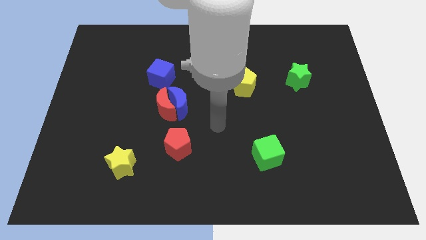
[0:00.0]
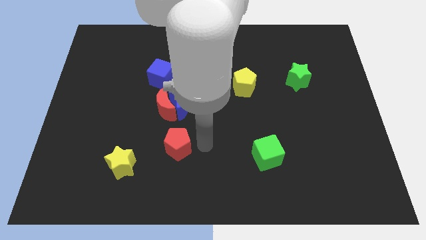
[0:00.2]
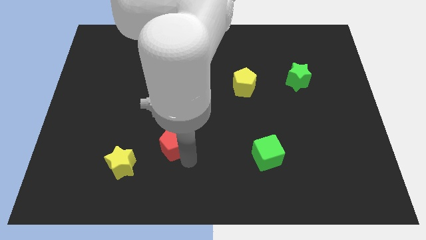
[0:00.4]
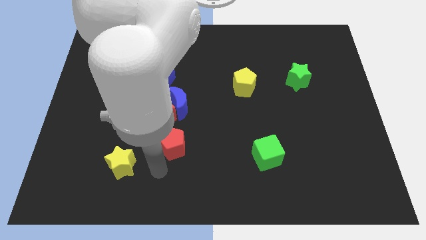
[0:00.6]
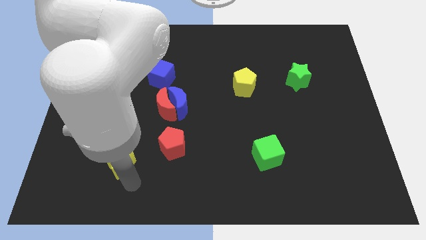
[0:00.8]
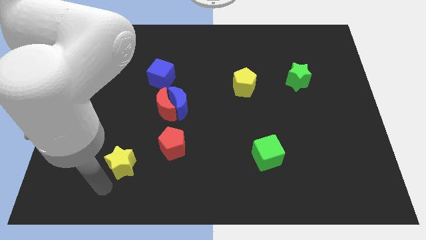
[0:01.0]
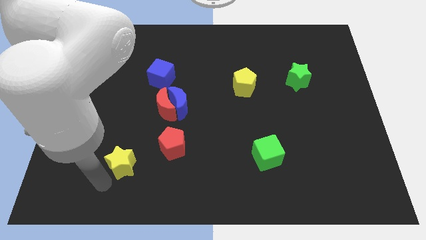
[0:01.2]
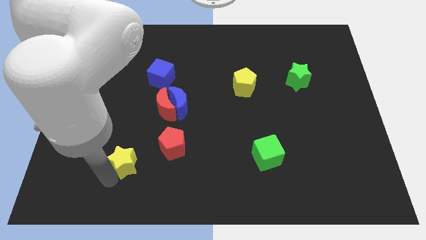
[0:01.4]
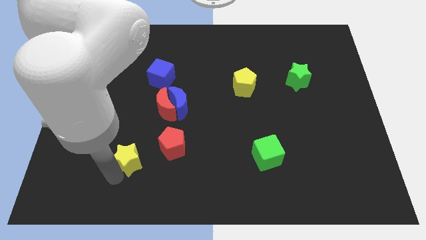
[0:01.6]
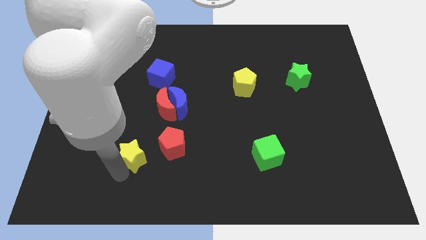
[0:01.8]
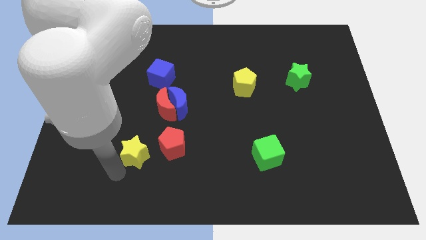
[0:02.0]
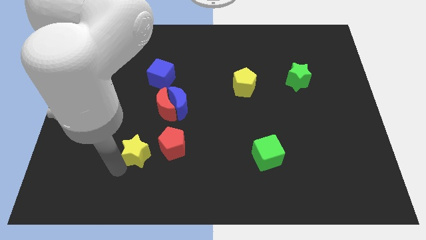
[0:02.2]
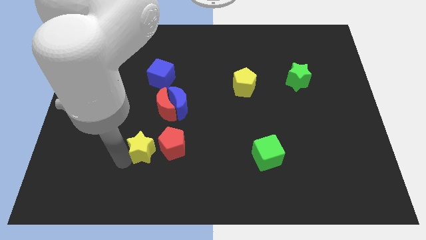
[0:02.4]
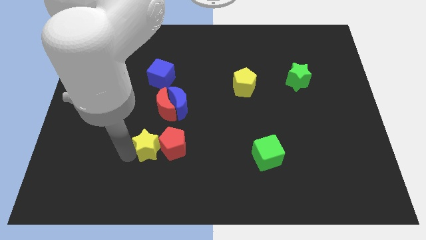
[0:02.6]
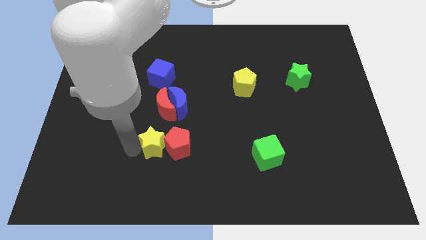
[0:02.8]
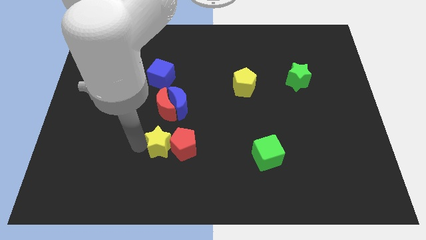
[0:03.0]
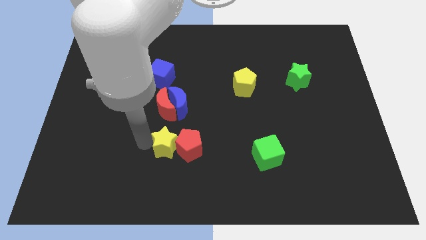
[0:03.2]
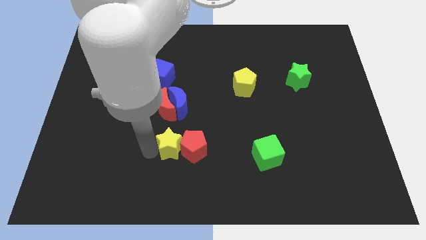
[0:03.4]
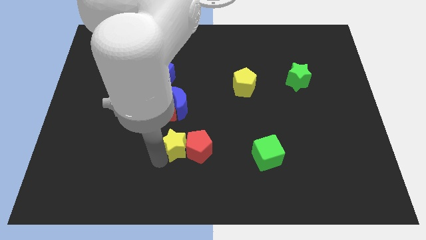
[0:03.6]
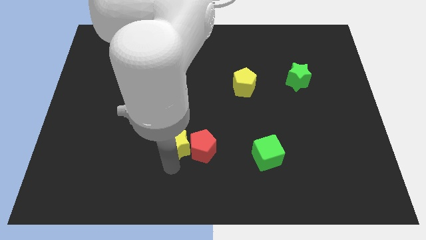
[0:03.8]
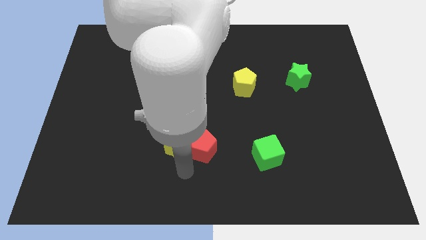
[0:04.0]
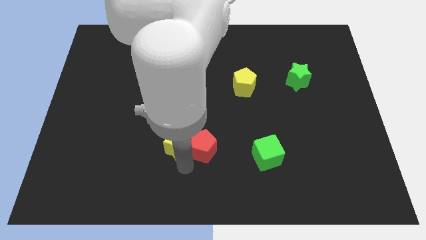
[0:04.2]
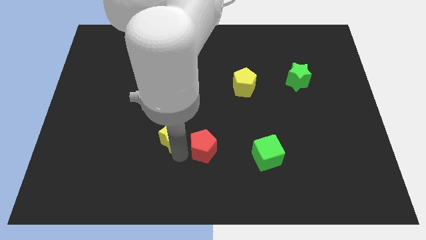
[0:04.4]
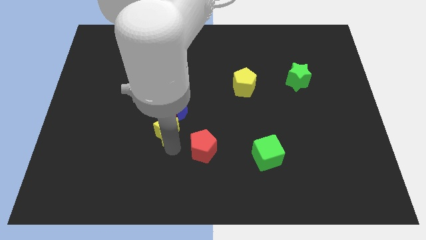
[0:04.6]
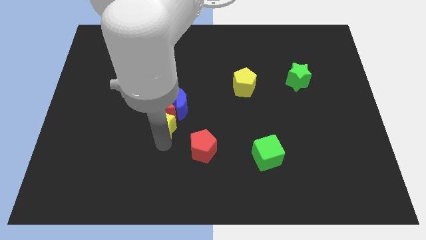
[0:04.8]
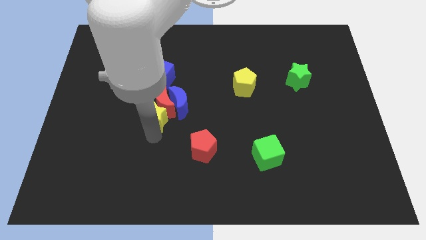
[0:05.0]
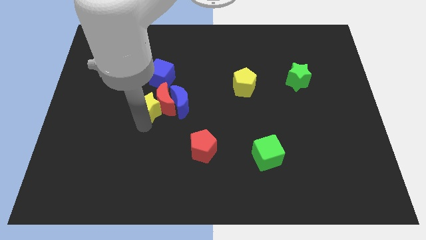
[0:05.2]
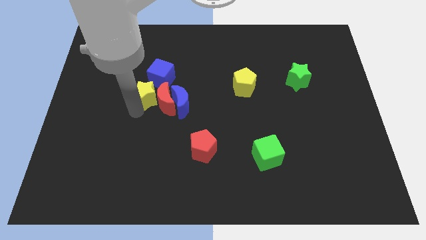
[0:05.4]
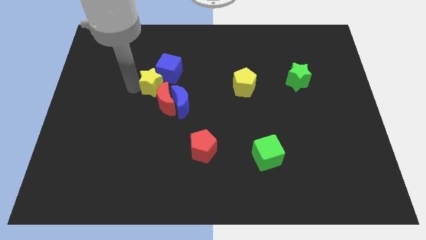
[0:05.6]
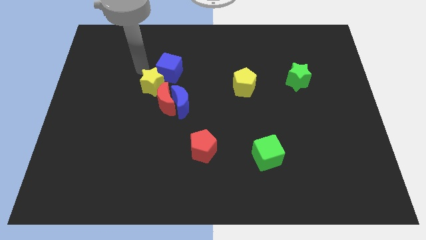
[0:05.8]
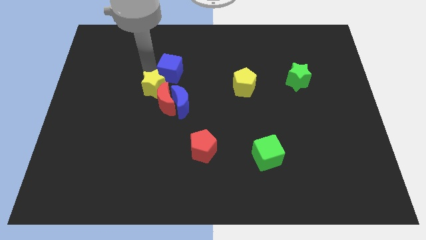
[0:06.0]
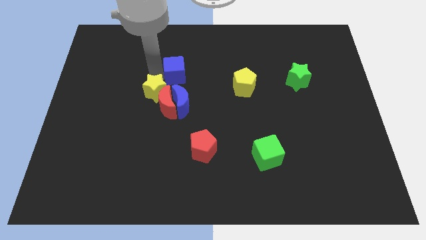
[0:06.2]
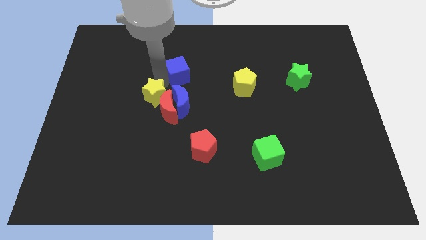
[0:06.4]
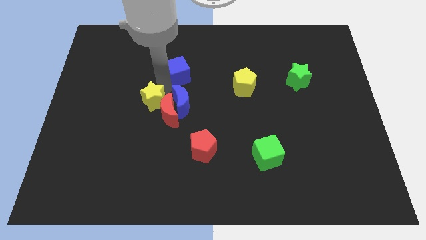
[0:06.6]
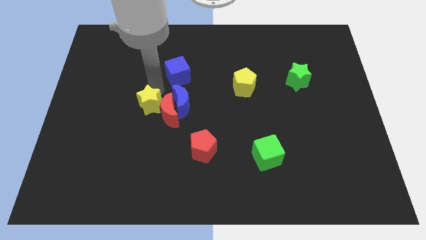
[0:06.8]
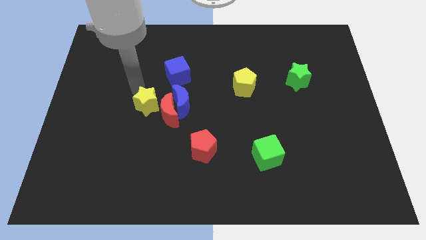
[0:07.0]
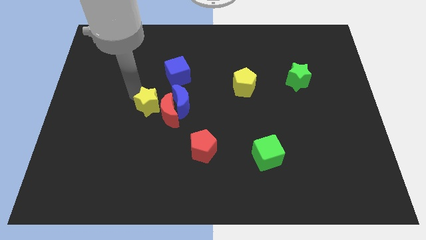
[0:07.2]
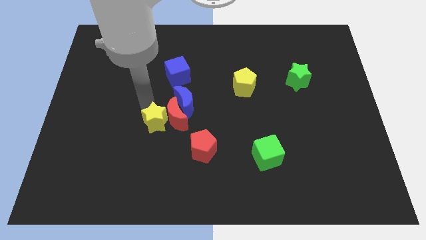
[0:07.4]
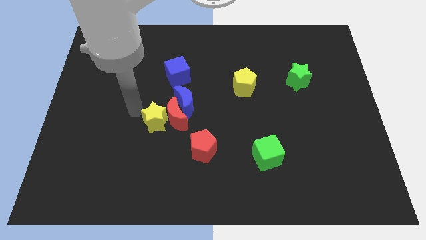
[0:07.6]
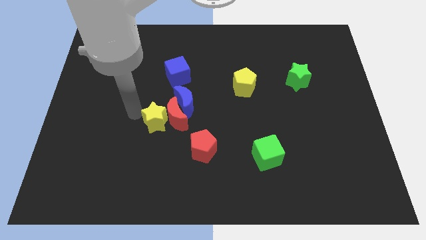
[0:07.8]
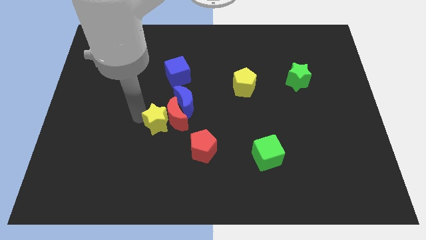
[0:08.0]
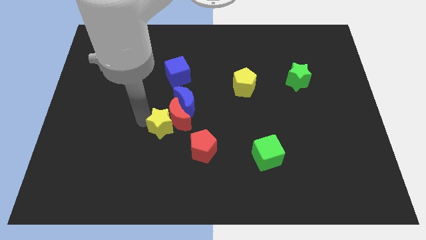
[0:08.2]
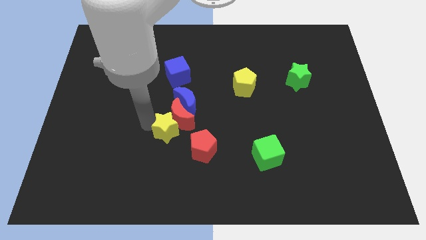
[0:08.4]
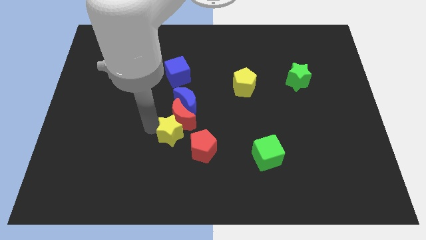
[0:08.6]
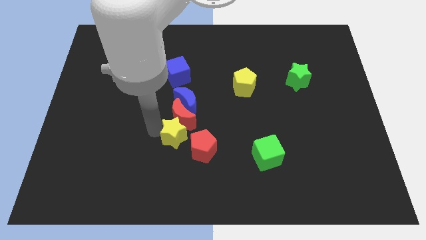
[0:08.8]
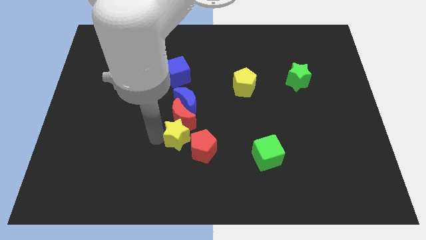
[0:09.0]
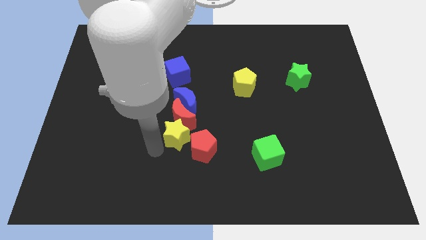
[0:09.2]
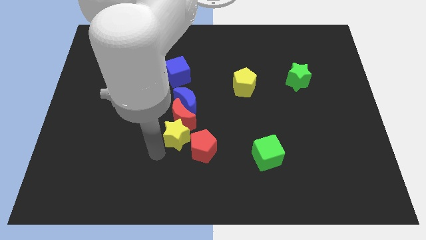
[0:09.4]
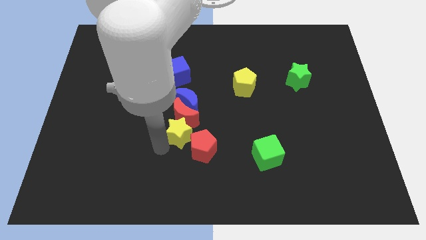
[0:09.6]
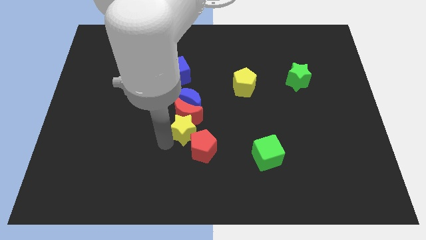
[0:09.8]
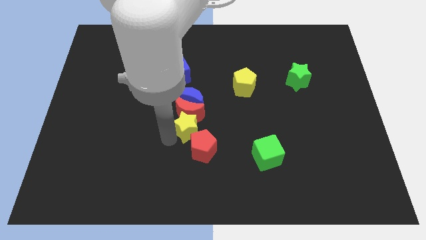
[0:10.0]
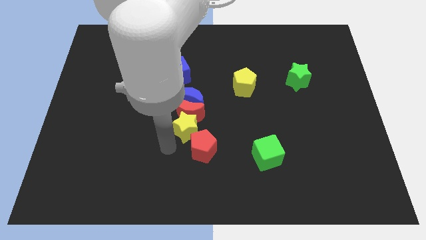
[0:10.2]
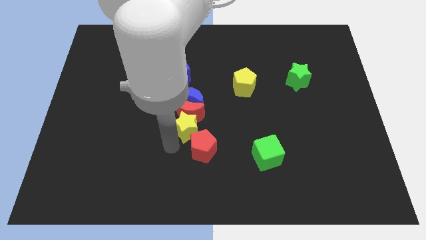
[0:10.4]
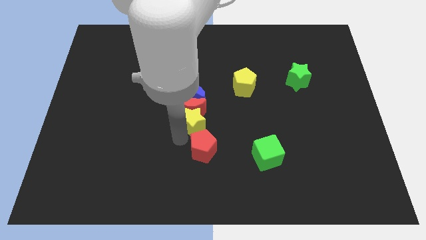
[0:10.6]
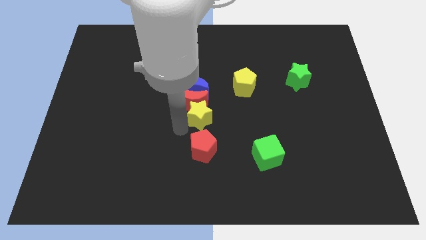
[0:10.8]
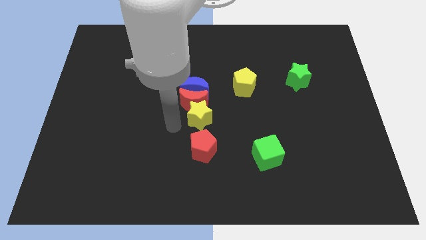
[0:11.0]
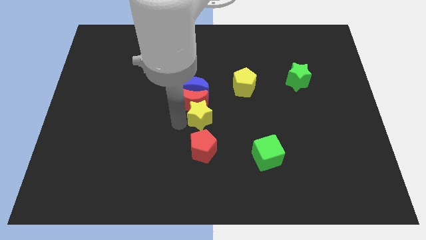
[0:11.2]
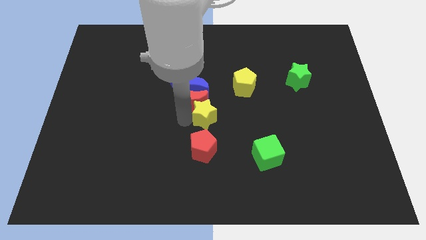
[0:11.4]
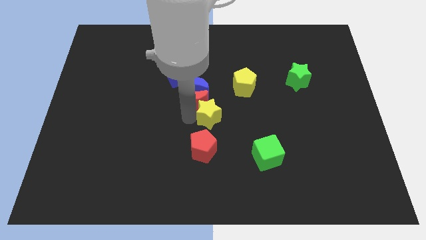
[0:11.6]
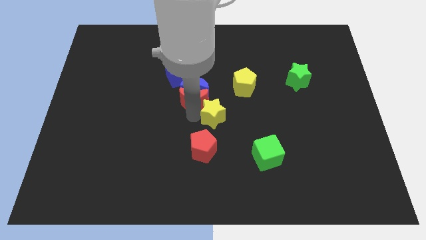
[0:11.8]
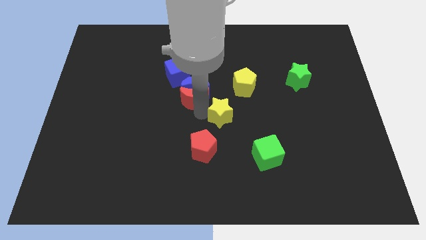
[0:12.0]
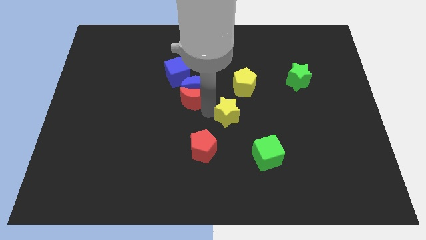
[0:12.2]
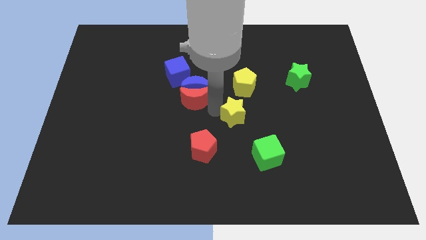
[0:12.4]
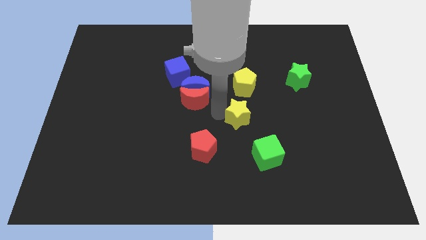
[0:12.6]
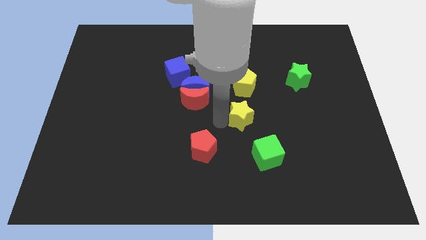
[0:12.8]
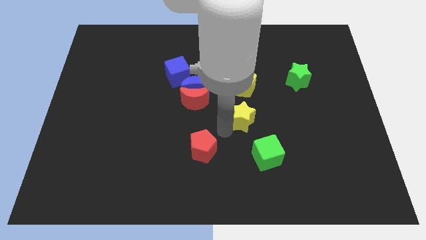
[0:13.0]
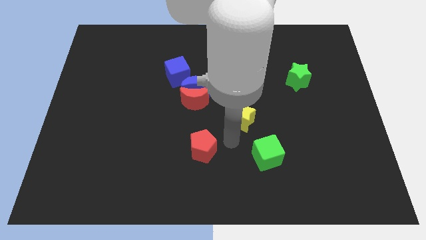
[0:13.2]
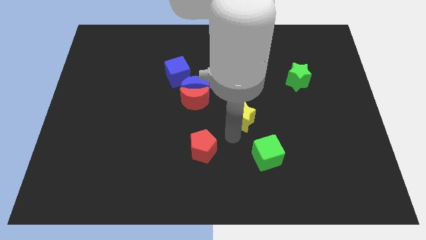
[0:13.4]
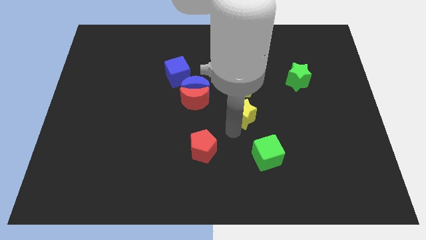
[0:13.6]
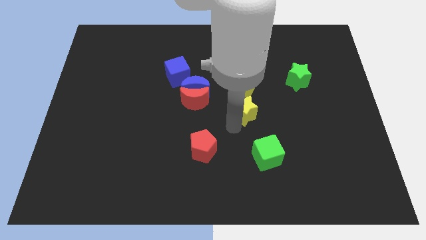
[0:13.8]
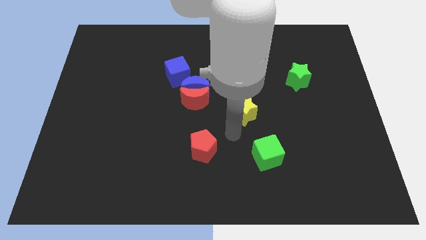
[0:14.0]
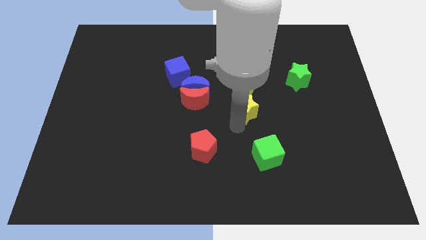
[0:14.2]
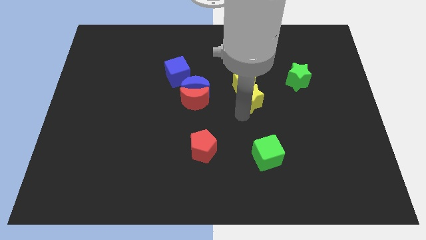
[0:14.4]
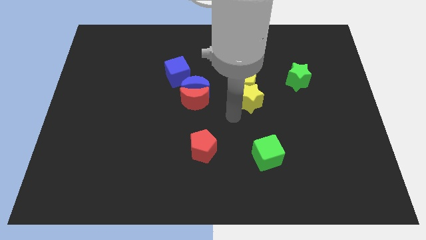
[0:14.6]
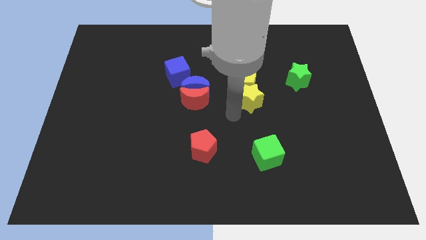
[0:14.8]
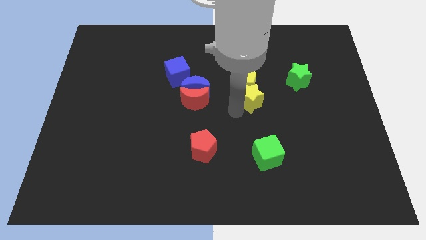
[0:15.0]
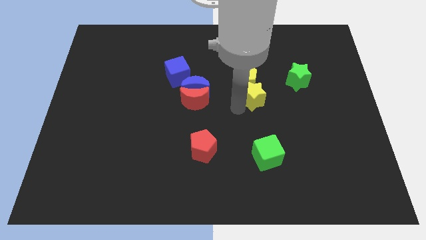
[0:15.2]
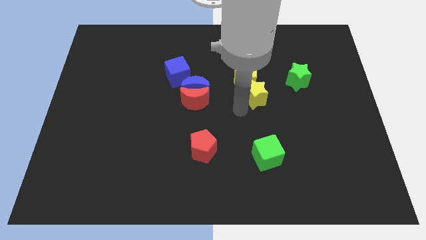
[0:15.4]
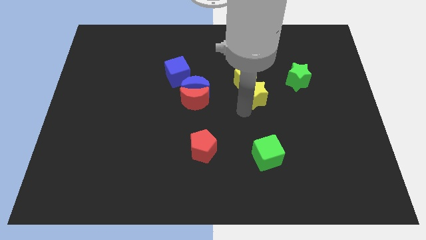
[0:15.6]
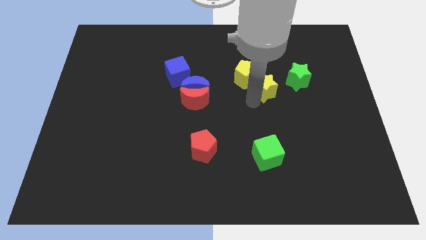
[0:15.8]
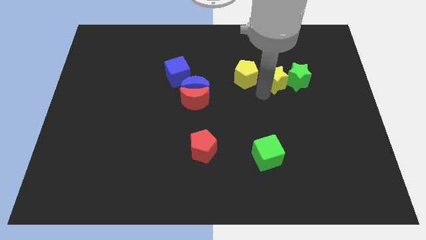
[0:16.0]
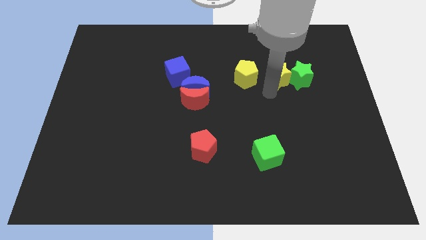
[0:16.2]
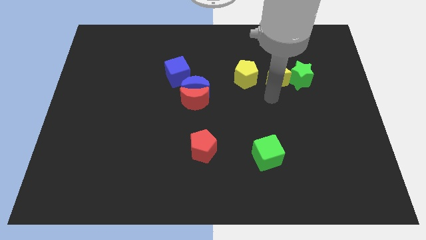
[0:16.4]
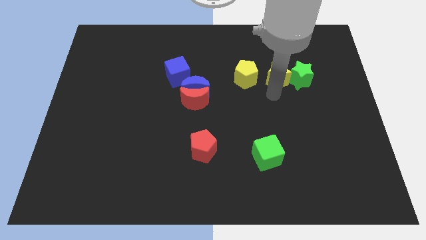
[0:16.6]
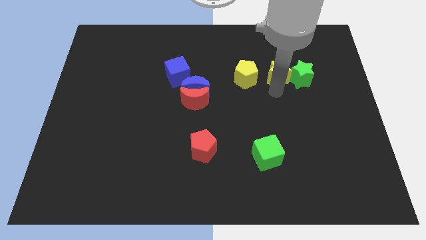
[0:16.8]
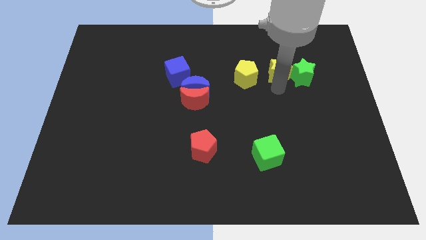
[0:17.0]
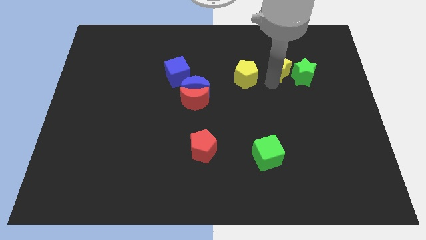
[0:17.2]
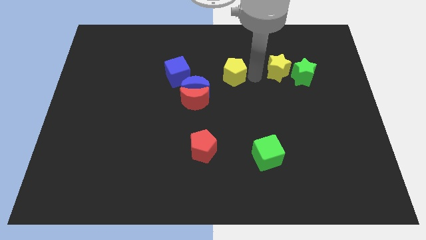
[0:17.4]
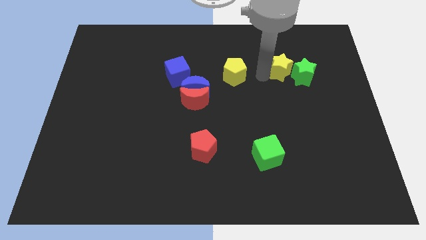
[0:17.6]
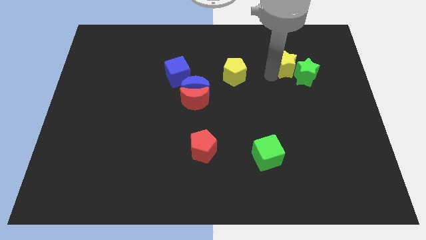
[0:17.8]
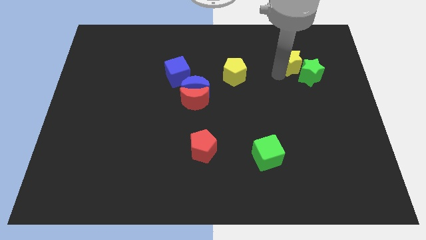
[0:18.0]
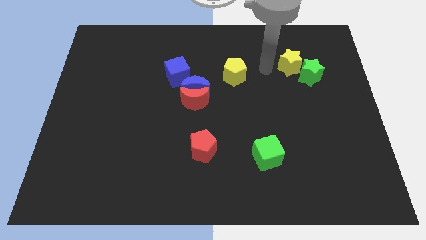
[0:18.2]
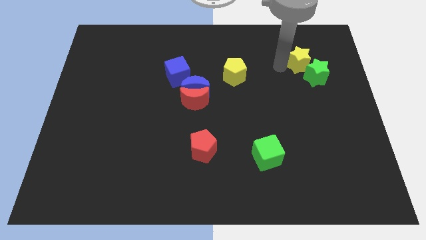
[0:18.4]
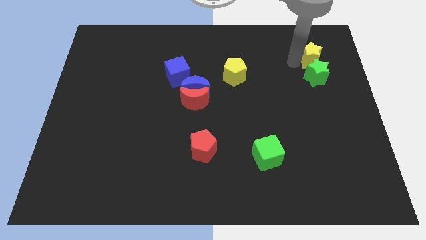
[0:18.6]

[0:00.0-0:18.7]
move the yellow star diagonally up and to the right of the green star
